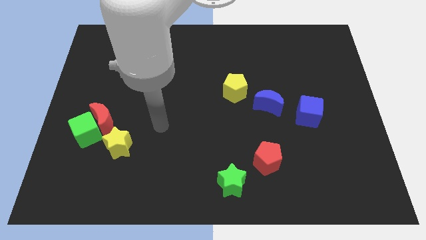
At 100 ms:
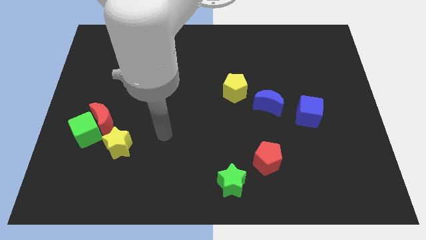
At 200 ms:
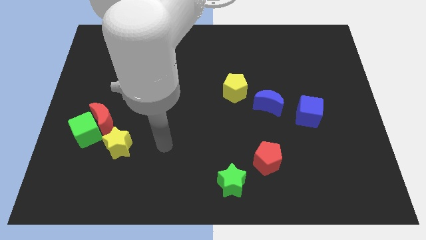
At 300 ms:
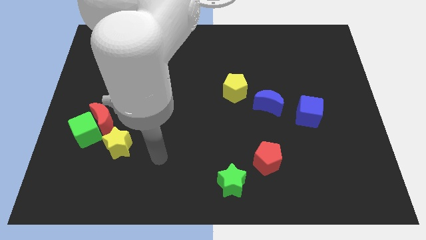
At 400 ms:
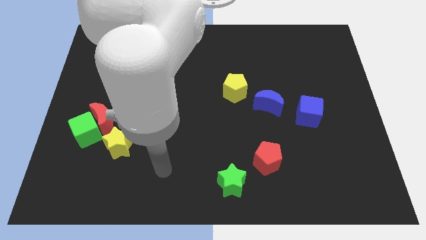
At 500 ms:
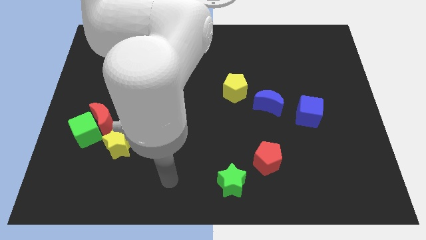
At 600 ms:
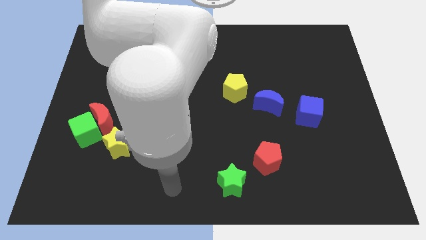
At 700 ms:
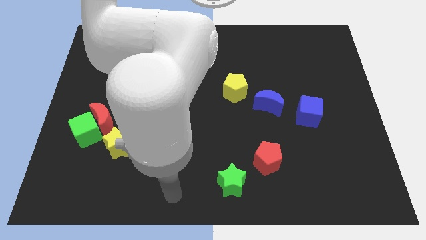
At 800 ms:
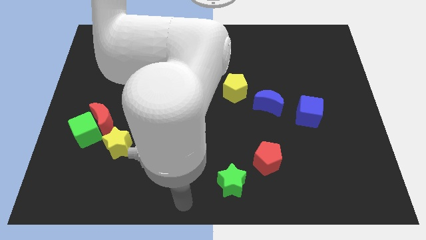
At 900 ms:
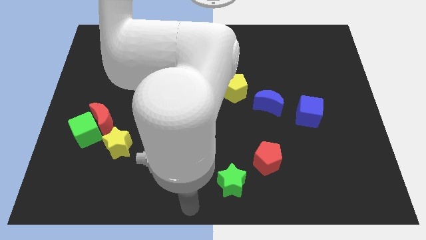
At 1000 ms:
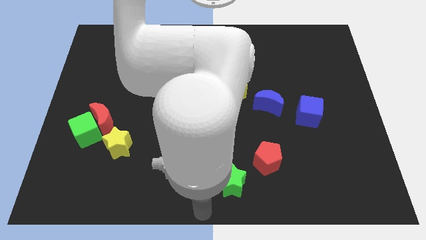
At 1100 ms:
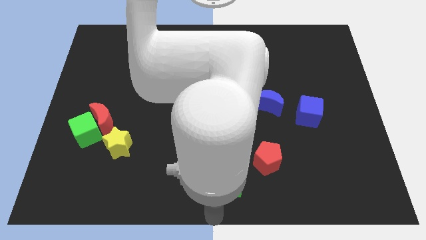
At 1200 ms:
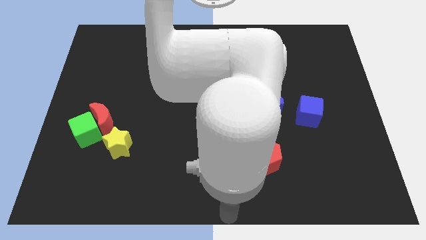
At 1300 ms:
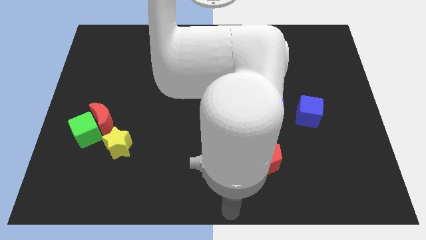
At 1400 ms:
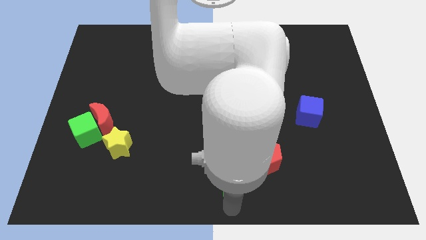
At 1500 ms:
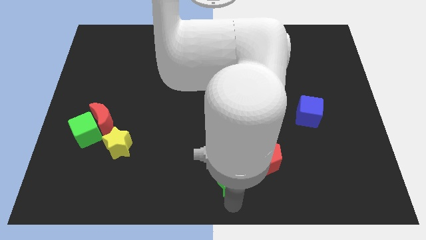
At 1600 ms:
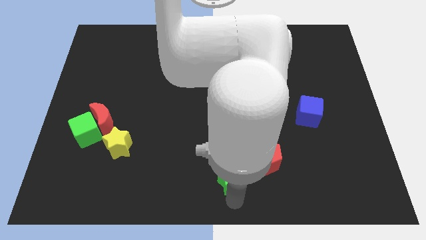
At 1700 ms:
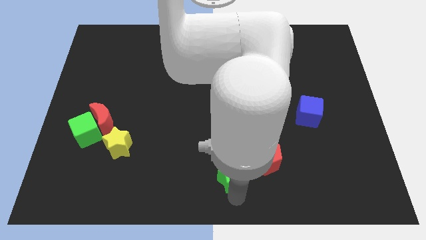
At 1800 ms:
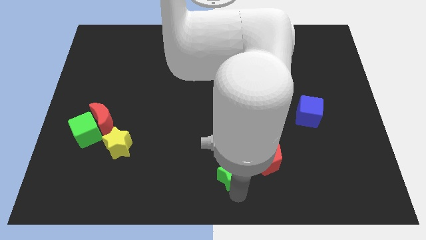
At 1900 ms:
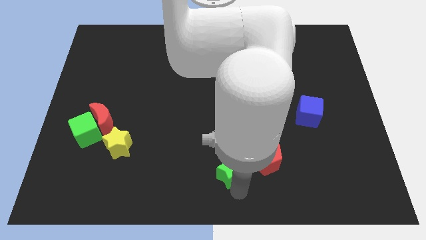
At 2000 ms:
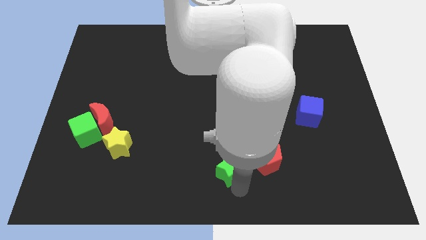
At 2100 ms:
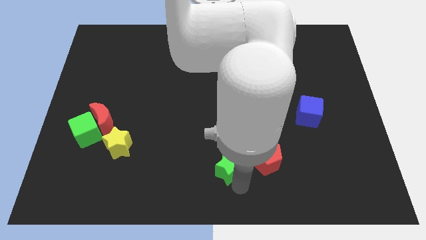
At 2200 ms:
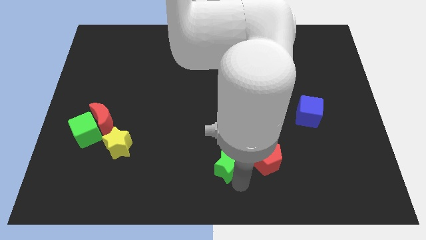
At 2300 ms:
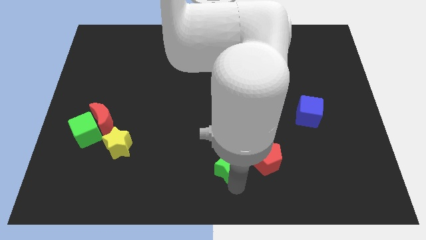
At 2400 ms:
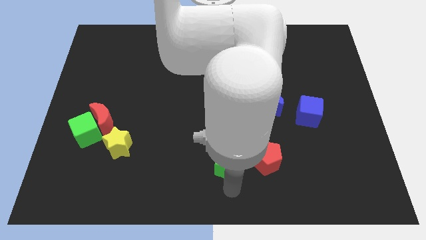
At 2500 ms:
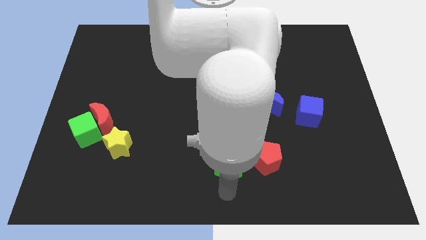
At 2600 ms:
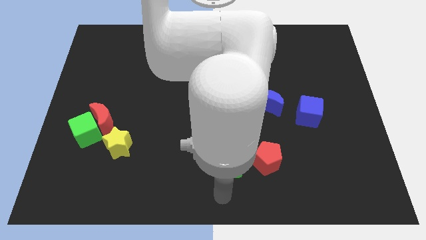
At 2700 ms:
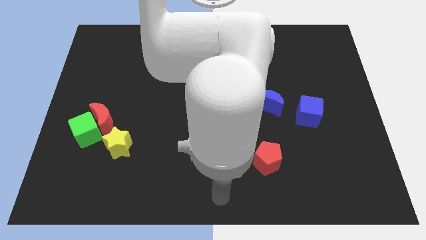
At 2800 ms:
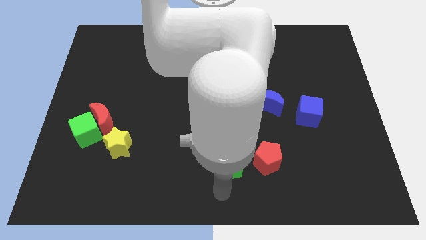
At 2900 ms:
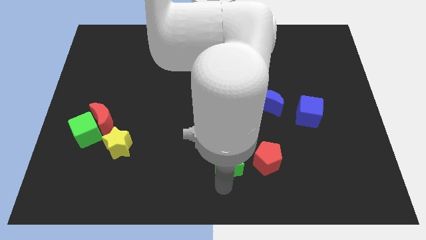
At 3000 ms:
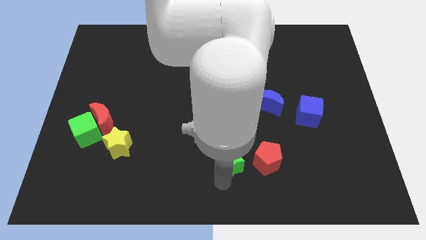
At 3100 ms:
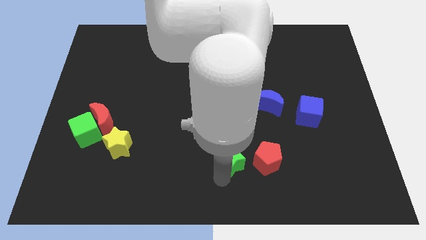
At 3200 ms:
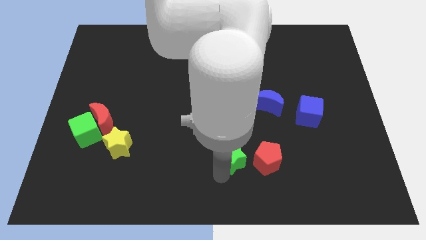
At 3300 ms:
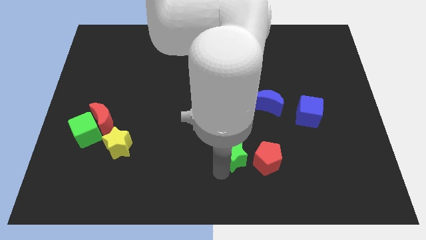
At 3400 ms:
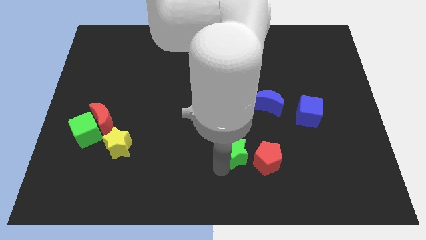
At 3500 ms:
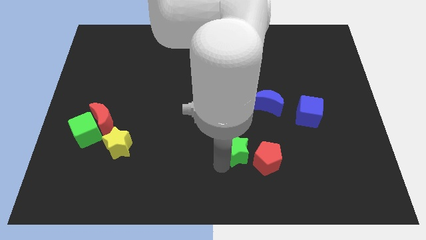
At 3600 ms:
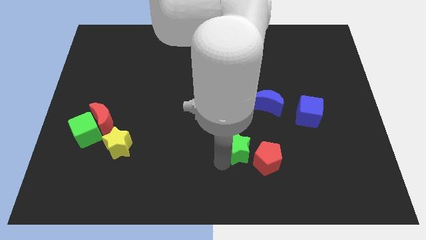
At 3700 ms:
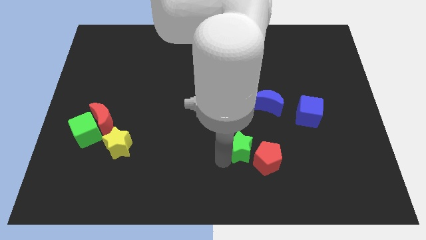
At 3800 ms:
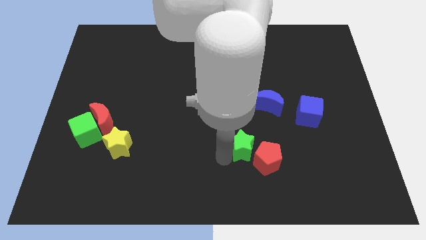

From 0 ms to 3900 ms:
slightly push the green star upwards and right diagonally

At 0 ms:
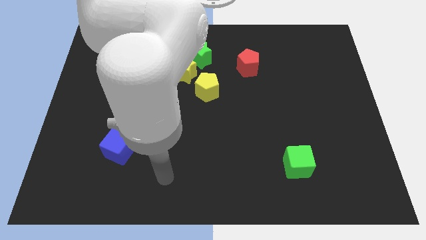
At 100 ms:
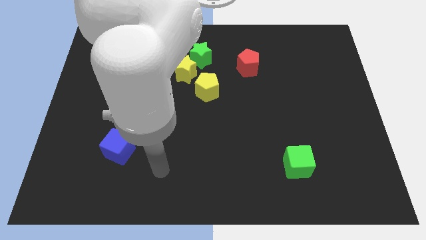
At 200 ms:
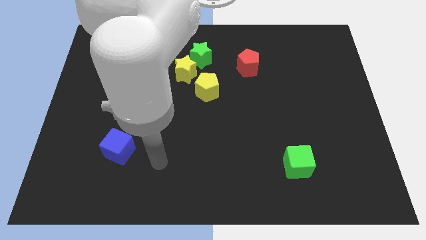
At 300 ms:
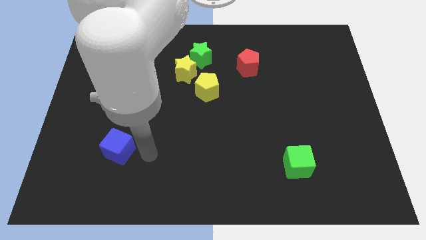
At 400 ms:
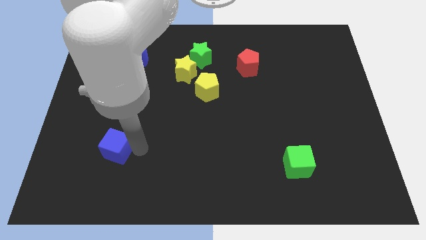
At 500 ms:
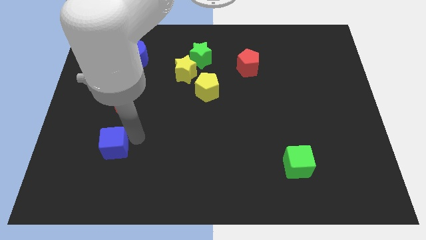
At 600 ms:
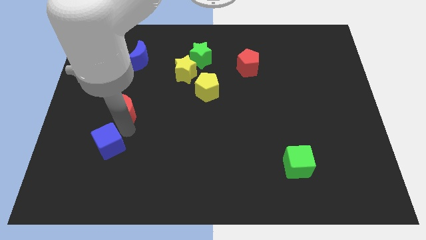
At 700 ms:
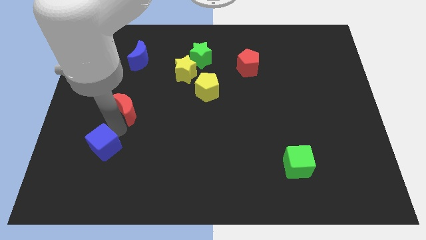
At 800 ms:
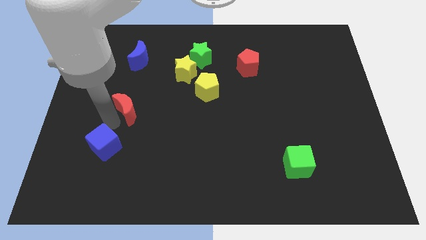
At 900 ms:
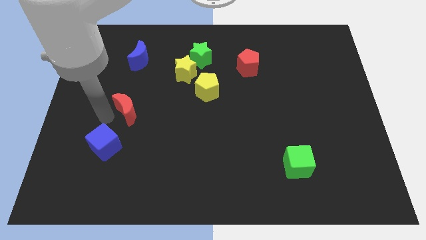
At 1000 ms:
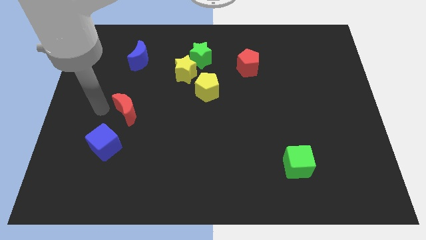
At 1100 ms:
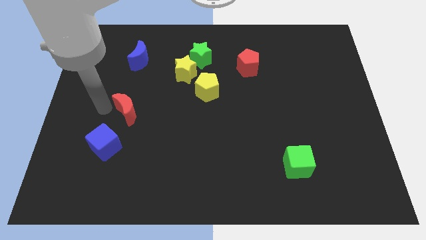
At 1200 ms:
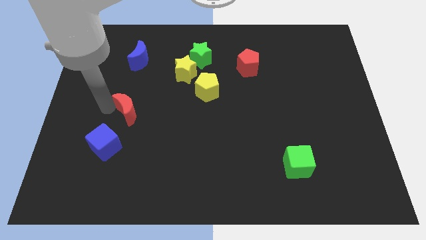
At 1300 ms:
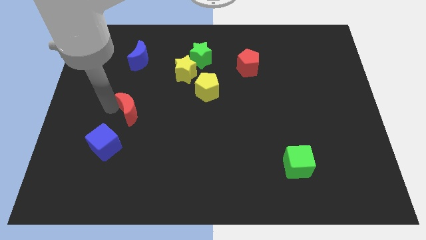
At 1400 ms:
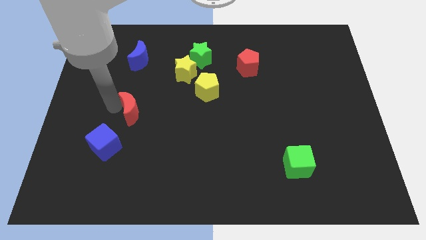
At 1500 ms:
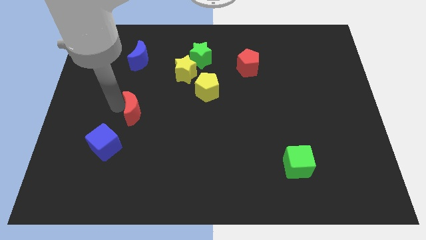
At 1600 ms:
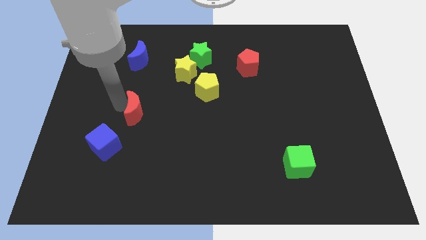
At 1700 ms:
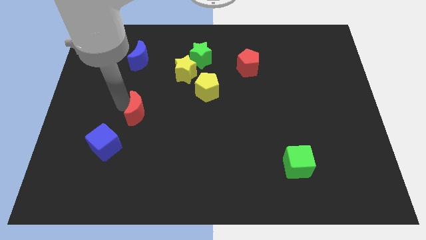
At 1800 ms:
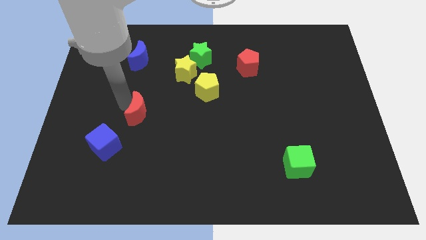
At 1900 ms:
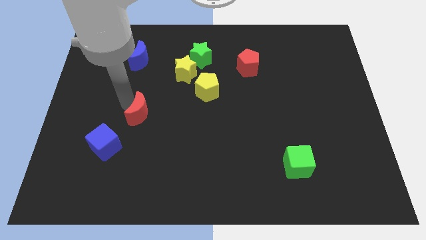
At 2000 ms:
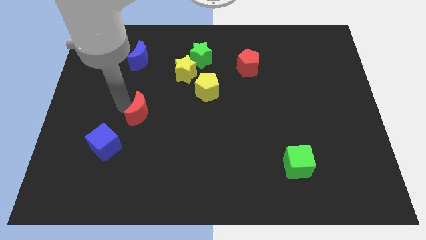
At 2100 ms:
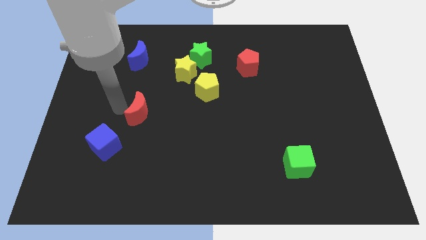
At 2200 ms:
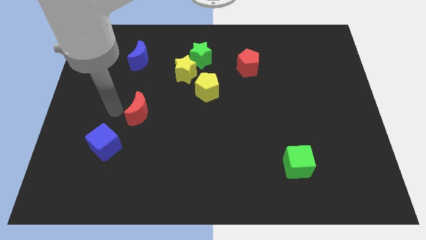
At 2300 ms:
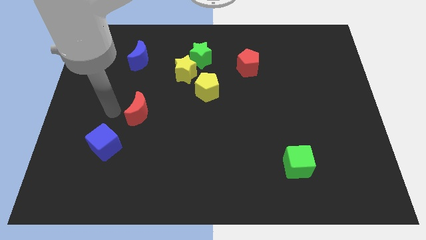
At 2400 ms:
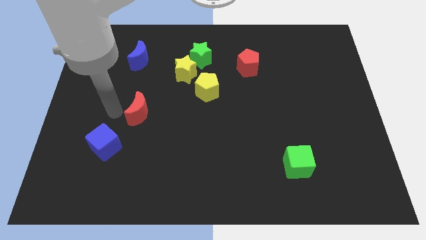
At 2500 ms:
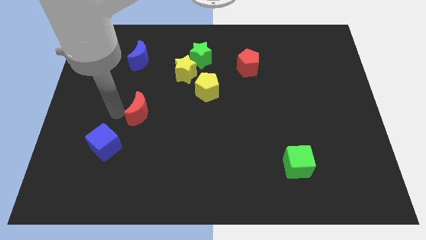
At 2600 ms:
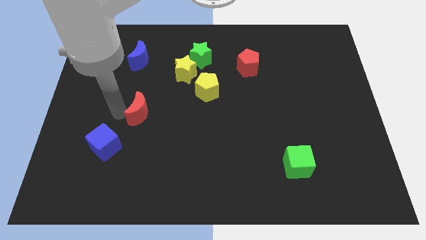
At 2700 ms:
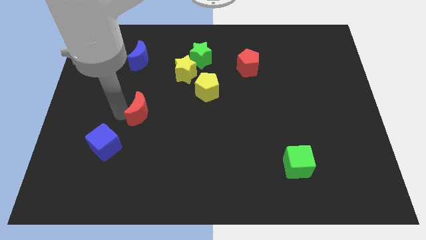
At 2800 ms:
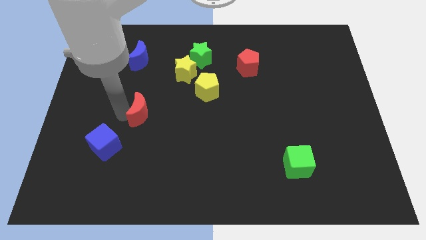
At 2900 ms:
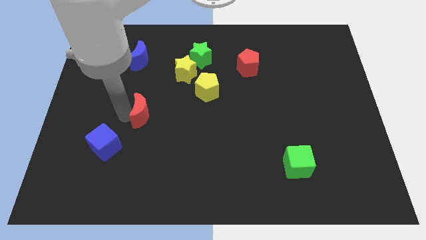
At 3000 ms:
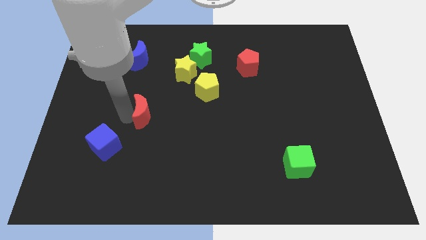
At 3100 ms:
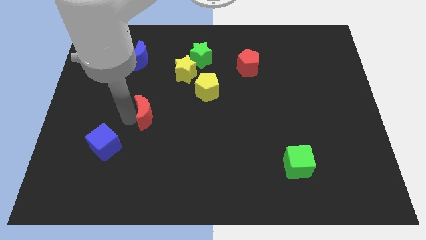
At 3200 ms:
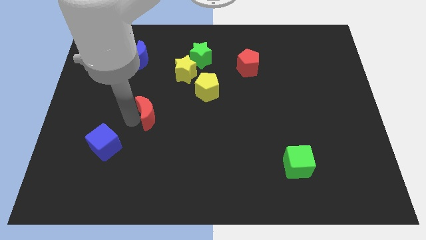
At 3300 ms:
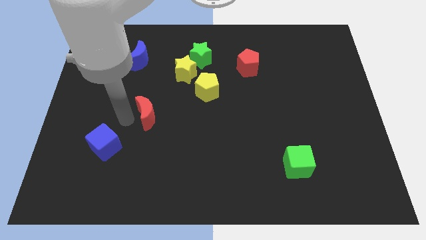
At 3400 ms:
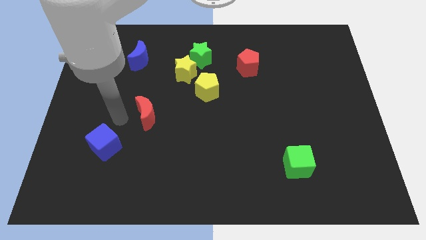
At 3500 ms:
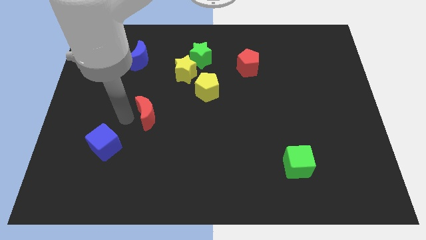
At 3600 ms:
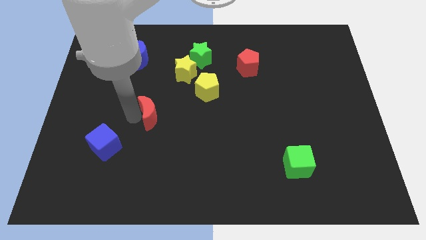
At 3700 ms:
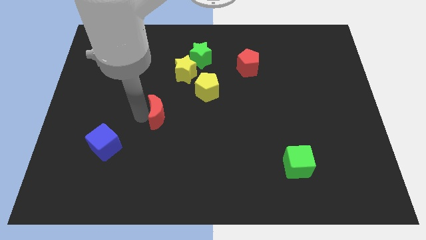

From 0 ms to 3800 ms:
slightly move the red moon right

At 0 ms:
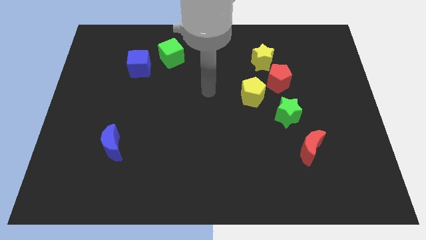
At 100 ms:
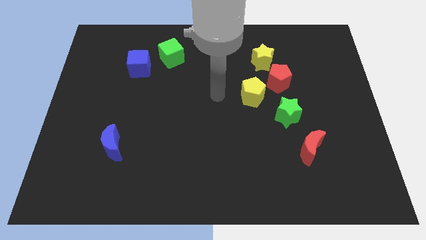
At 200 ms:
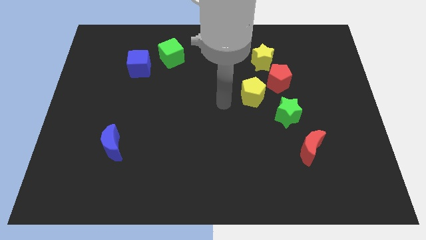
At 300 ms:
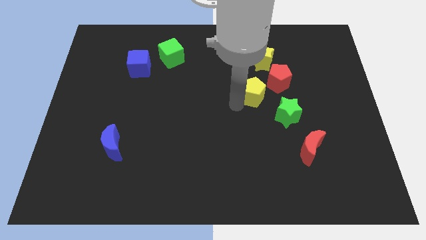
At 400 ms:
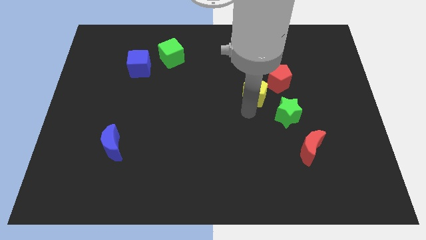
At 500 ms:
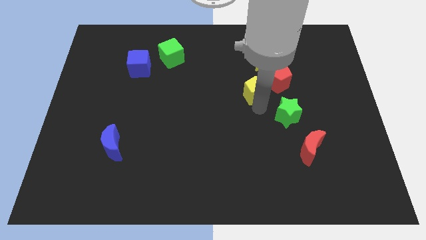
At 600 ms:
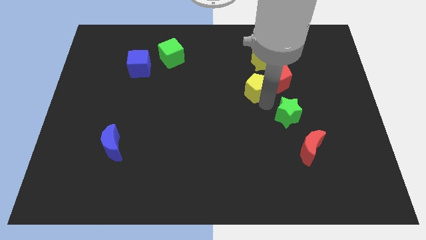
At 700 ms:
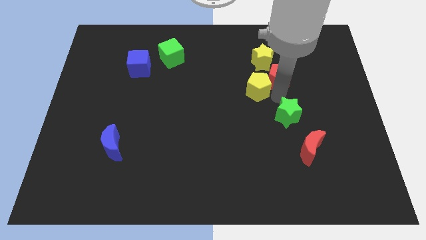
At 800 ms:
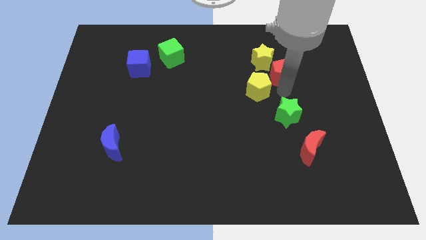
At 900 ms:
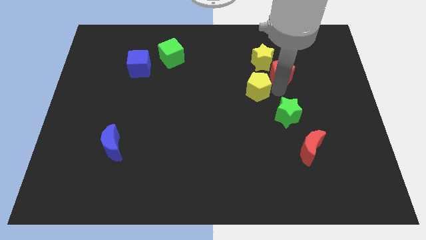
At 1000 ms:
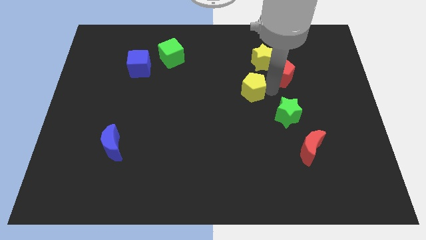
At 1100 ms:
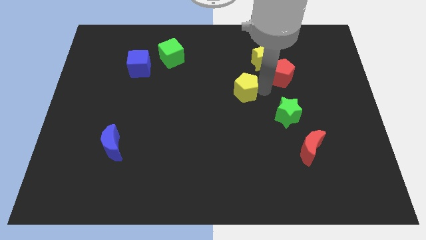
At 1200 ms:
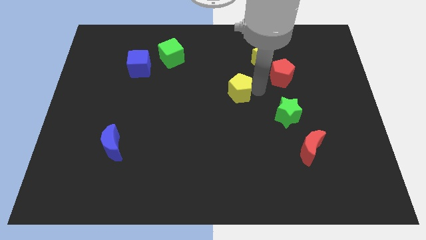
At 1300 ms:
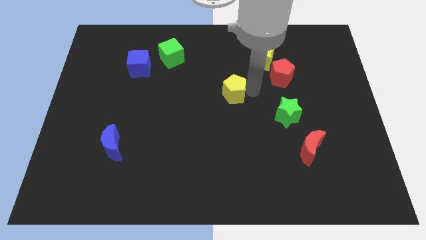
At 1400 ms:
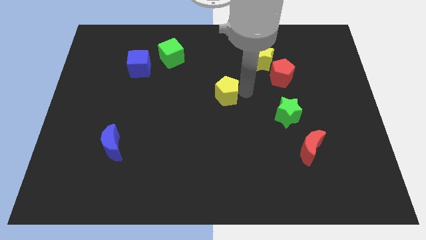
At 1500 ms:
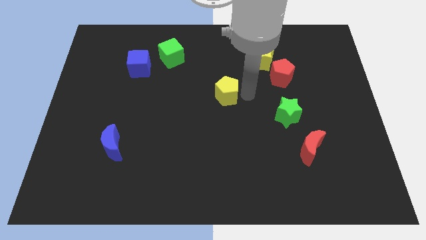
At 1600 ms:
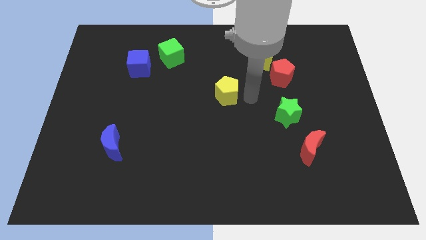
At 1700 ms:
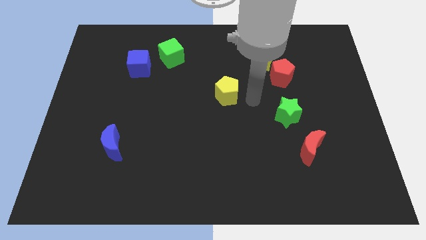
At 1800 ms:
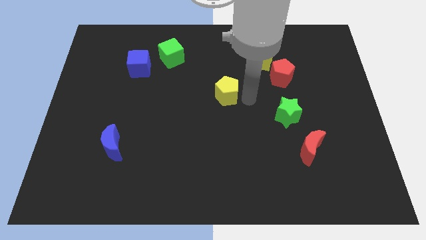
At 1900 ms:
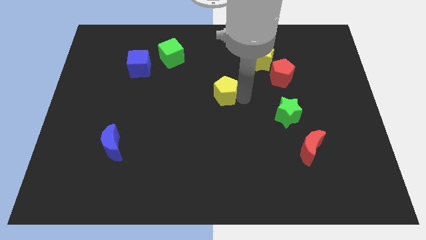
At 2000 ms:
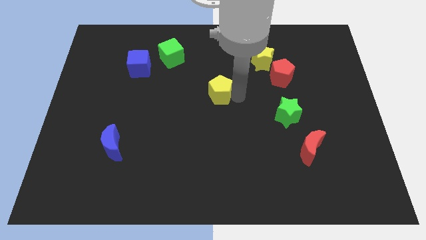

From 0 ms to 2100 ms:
slightly push the yellow pentagon left
